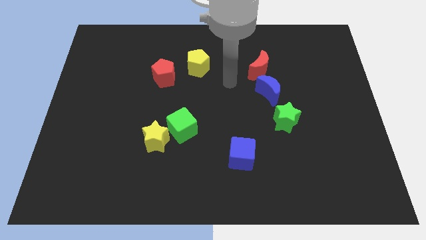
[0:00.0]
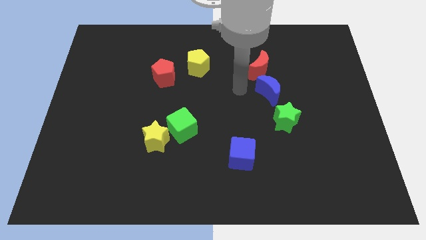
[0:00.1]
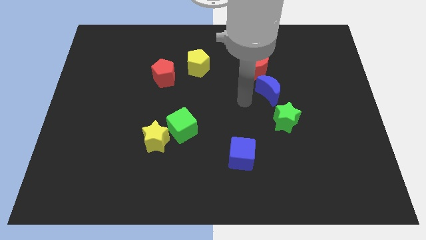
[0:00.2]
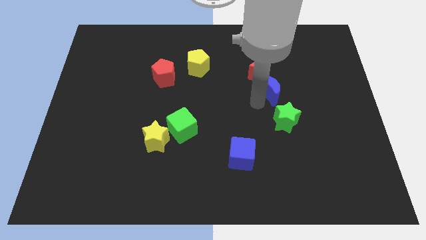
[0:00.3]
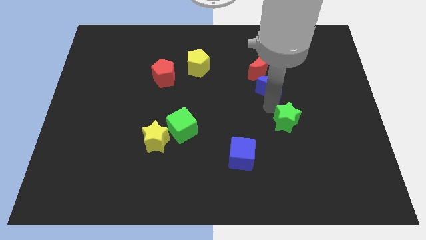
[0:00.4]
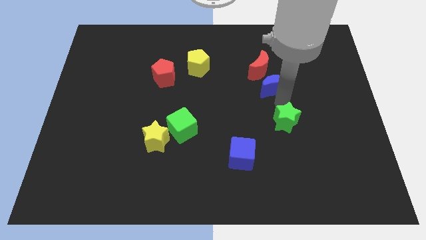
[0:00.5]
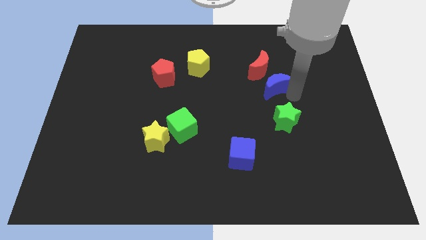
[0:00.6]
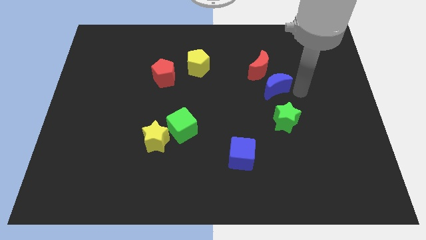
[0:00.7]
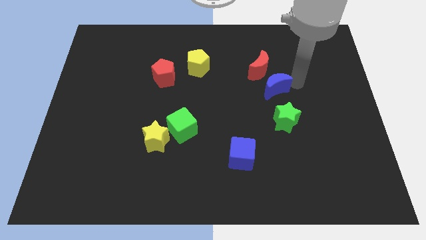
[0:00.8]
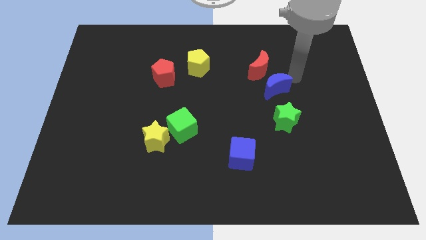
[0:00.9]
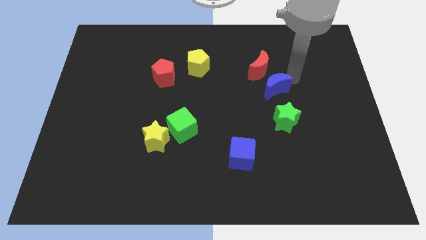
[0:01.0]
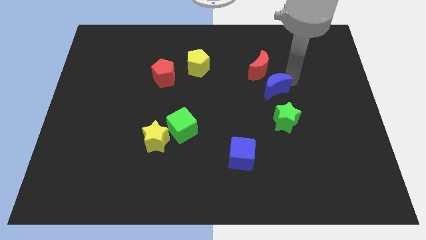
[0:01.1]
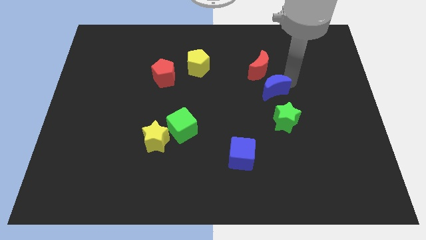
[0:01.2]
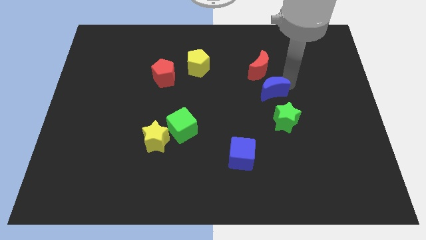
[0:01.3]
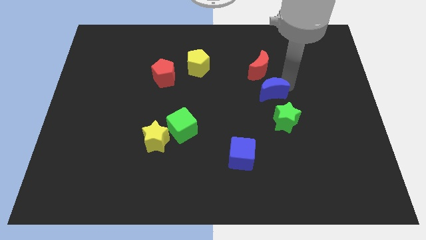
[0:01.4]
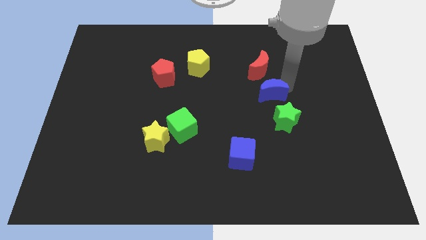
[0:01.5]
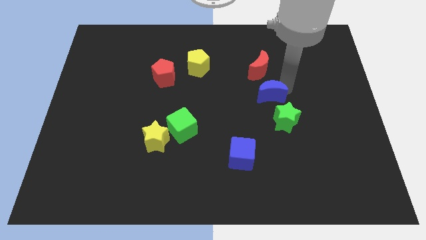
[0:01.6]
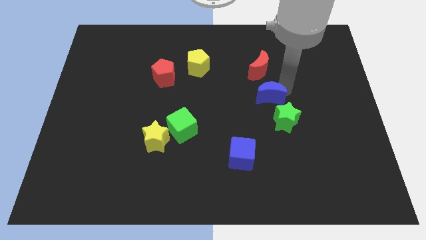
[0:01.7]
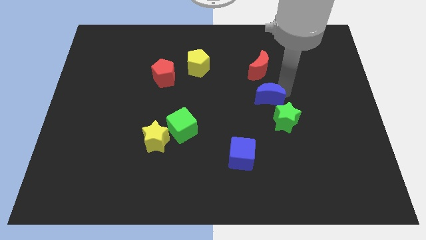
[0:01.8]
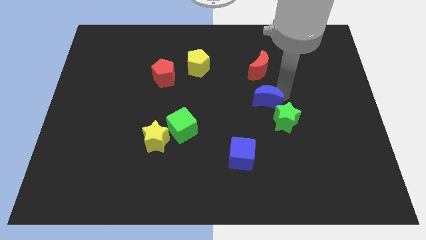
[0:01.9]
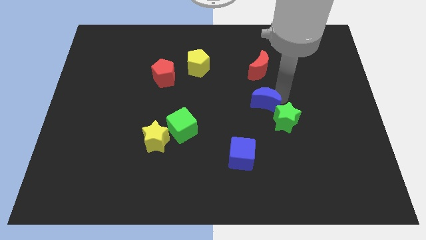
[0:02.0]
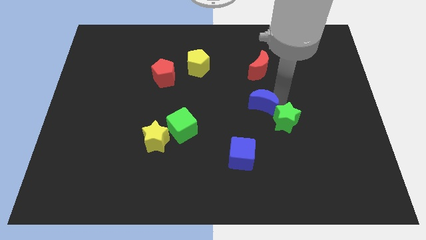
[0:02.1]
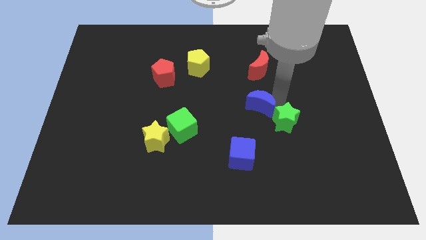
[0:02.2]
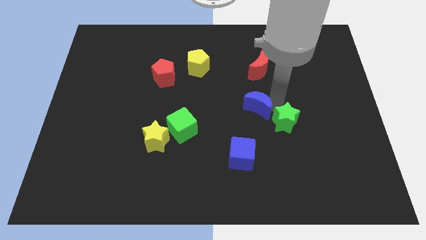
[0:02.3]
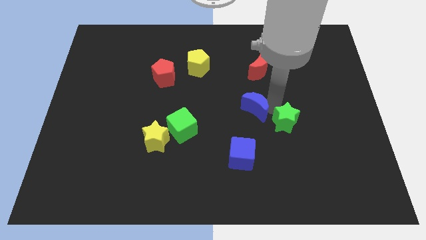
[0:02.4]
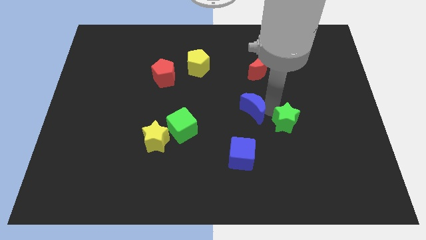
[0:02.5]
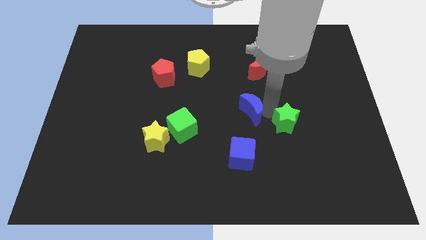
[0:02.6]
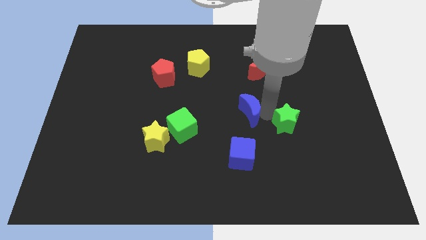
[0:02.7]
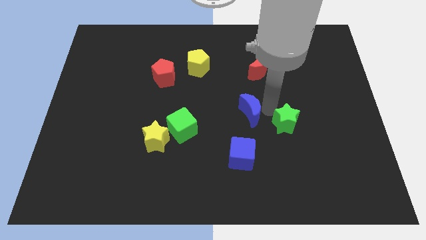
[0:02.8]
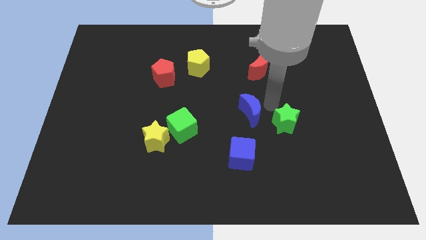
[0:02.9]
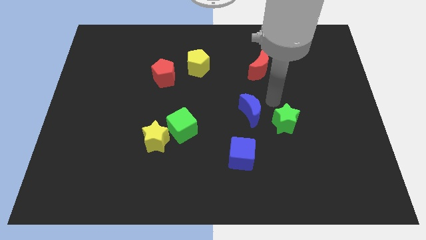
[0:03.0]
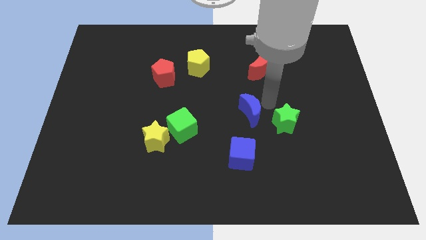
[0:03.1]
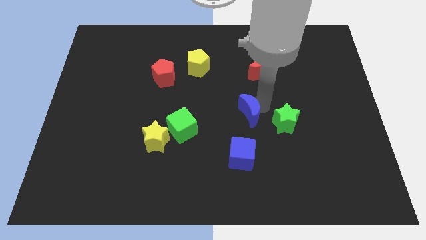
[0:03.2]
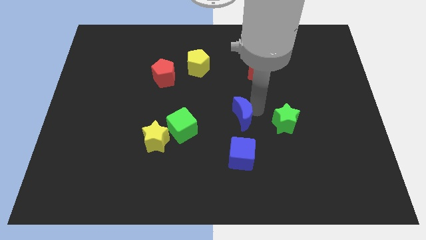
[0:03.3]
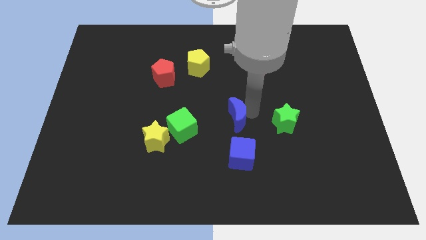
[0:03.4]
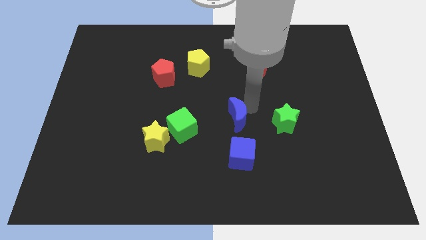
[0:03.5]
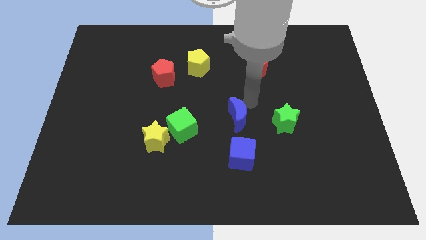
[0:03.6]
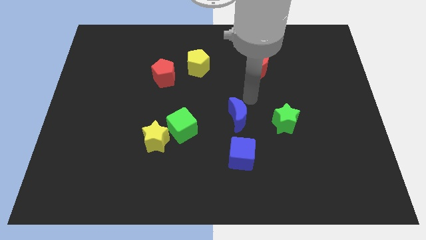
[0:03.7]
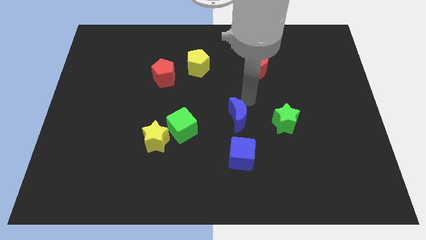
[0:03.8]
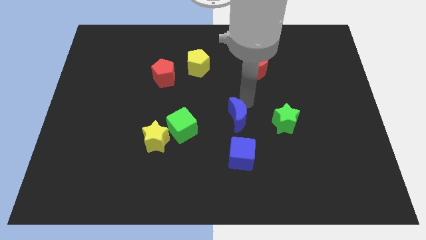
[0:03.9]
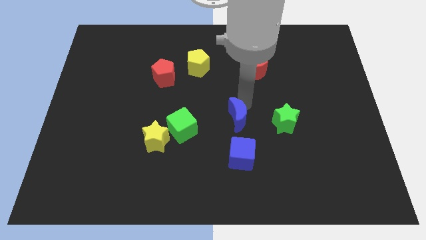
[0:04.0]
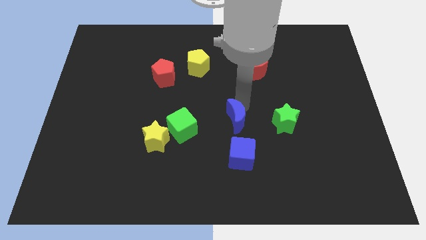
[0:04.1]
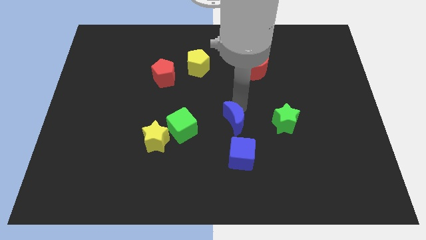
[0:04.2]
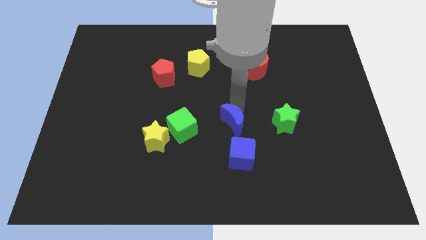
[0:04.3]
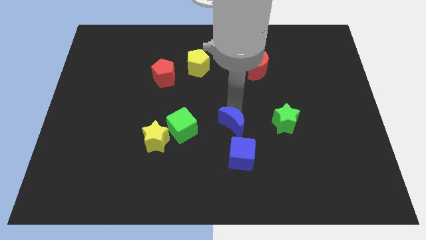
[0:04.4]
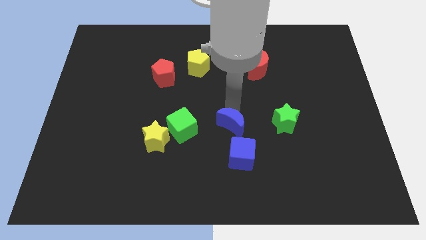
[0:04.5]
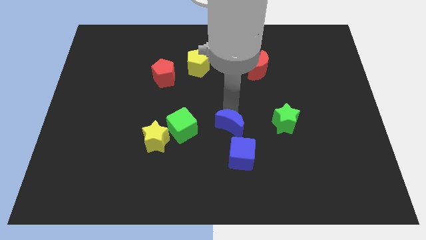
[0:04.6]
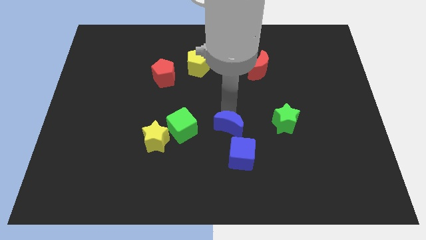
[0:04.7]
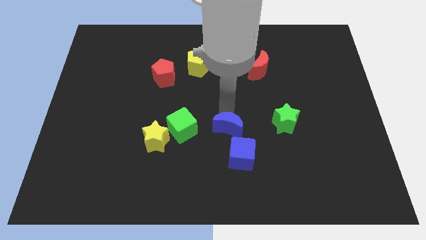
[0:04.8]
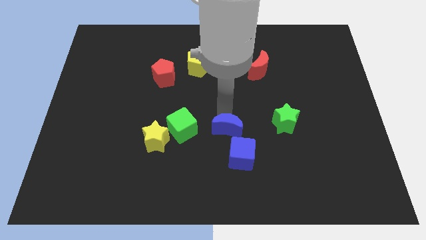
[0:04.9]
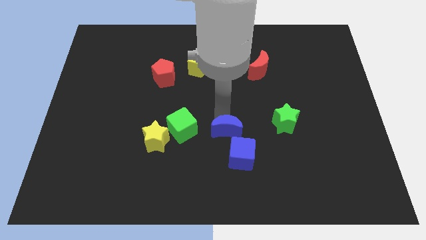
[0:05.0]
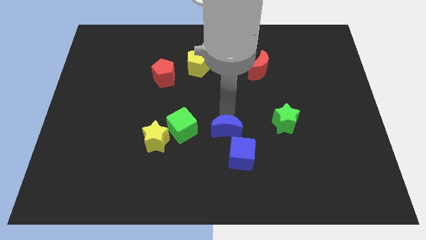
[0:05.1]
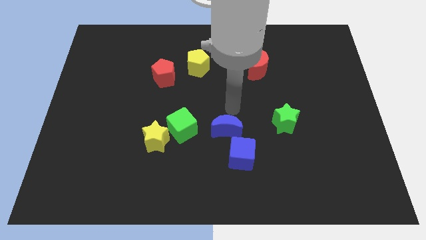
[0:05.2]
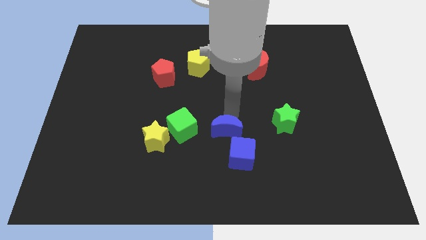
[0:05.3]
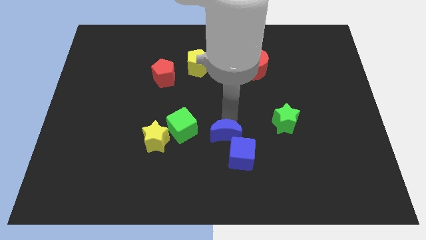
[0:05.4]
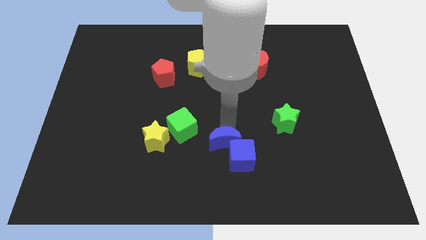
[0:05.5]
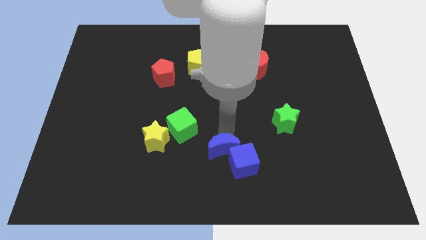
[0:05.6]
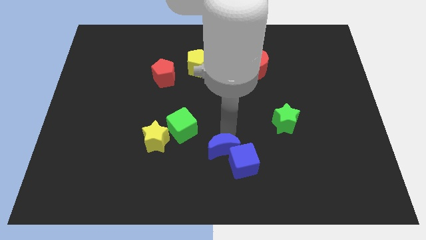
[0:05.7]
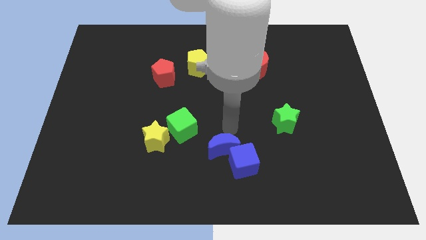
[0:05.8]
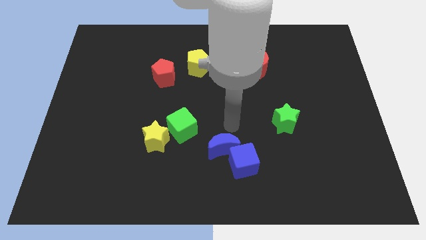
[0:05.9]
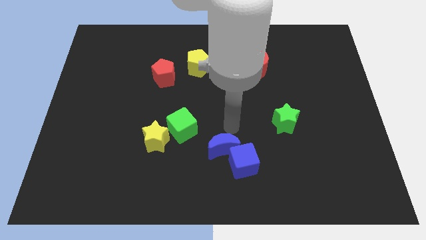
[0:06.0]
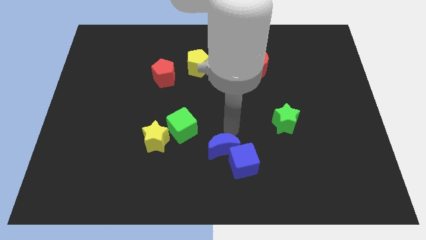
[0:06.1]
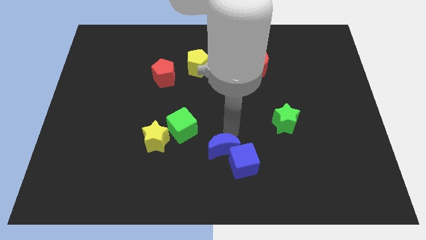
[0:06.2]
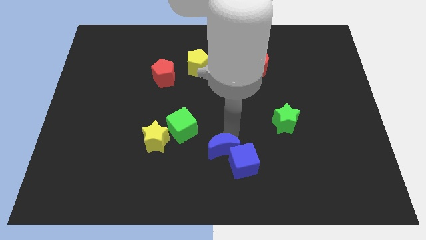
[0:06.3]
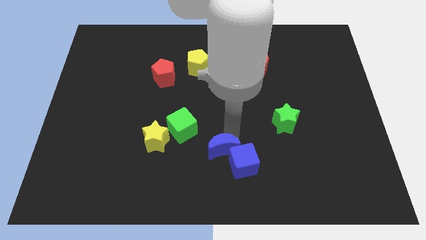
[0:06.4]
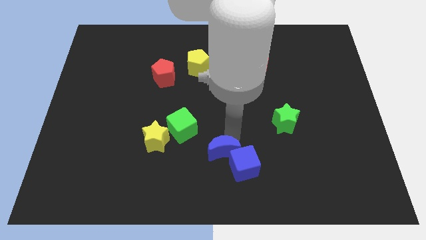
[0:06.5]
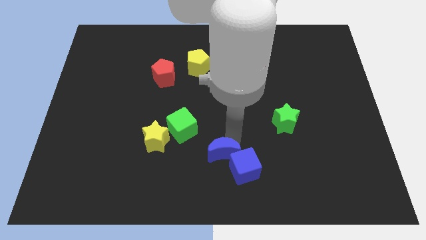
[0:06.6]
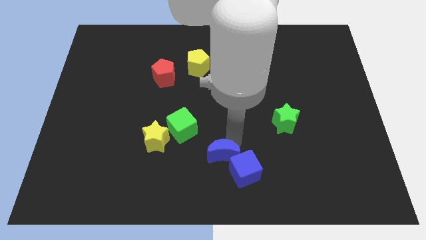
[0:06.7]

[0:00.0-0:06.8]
put the blue moon to the bottom side
